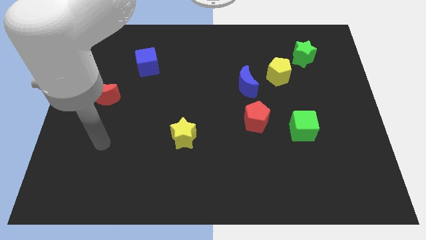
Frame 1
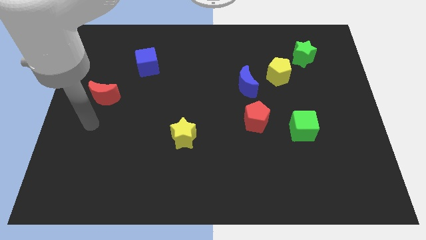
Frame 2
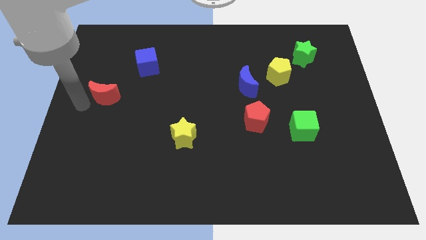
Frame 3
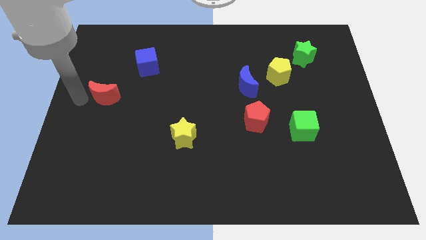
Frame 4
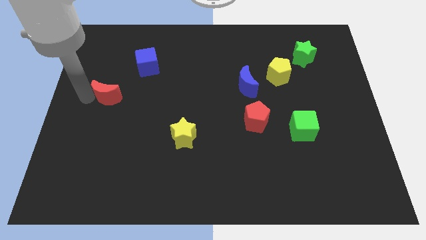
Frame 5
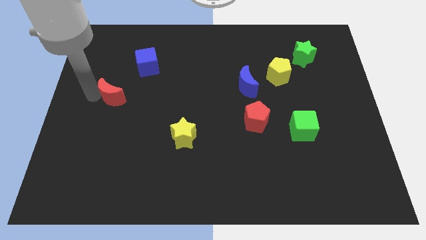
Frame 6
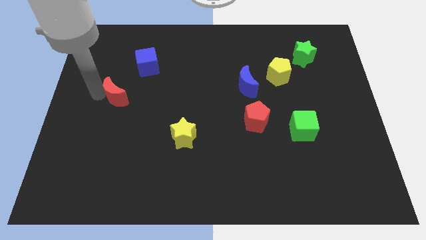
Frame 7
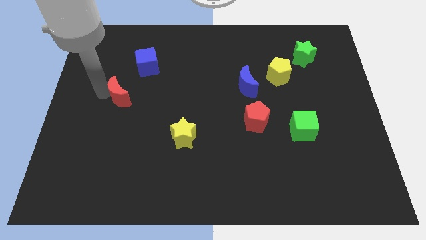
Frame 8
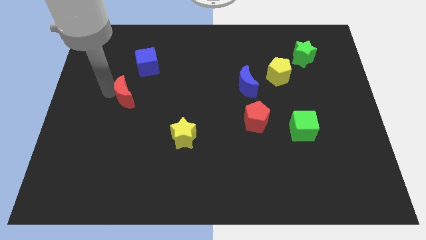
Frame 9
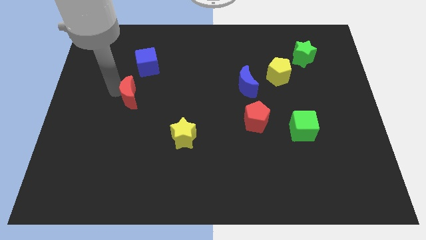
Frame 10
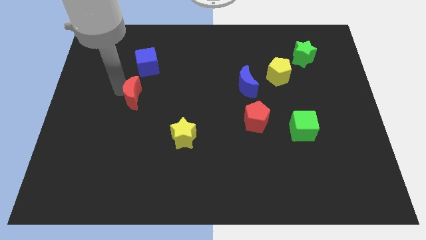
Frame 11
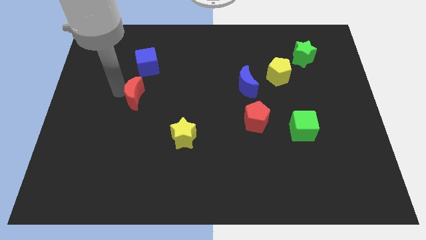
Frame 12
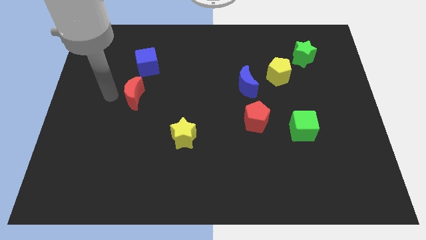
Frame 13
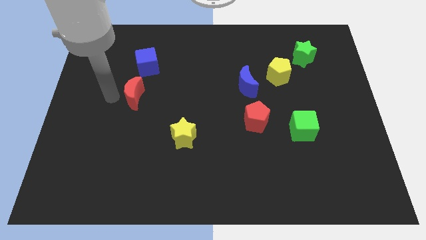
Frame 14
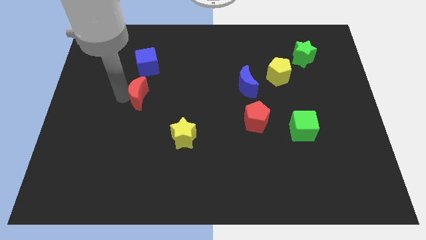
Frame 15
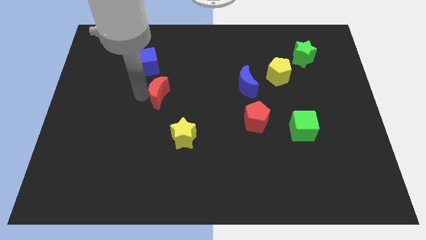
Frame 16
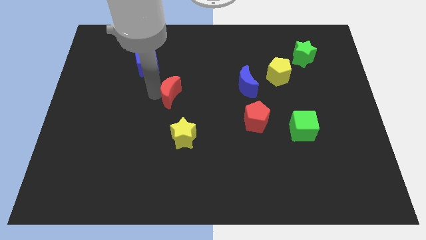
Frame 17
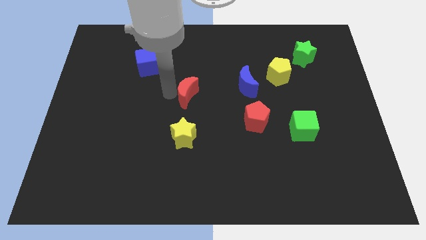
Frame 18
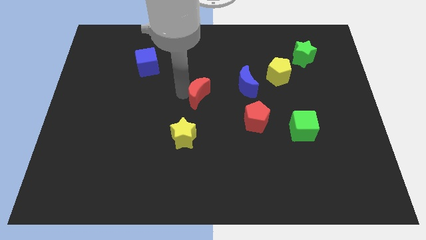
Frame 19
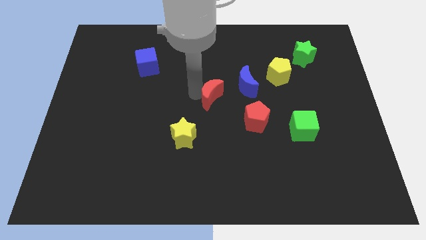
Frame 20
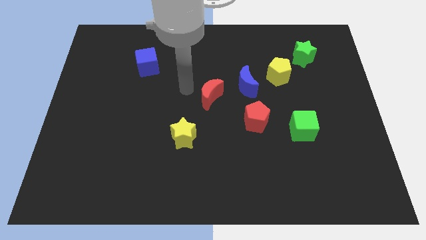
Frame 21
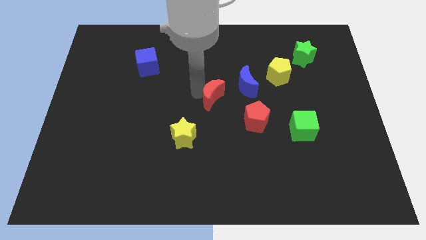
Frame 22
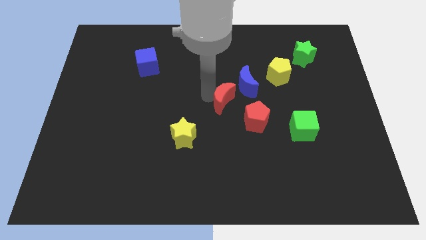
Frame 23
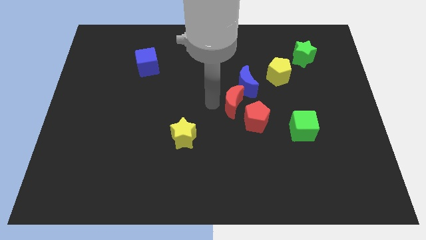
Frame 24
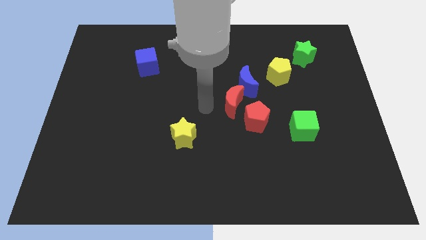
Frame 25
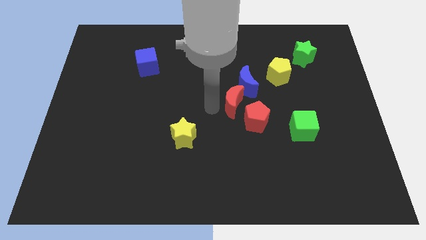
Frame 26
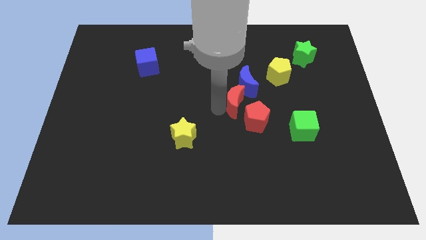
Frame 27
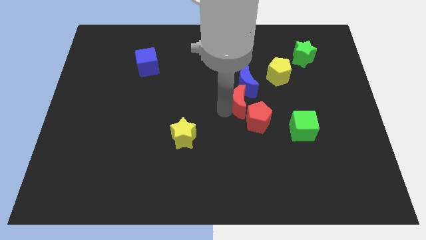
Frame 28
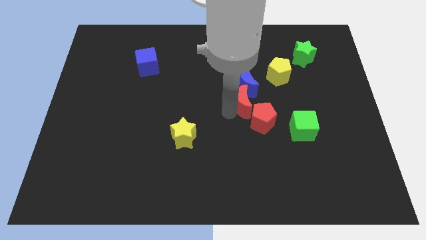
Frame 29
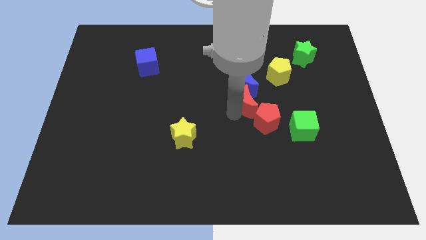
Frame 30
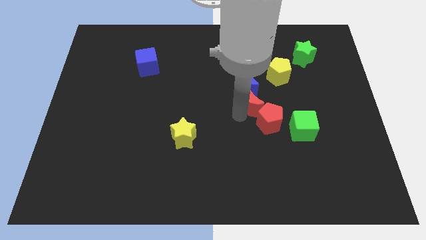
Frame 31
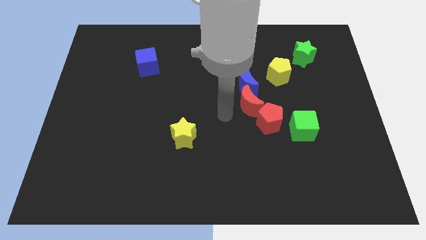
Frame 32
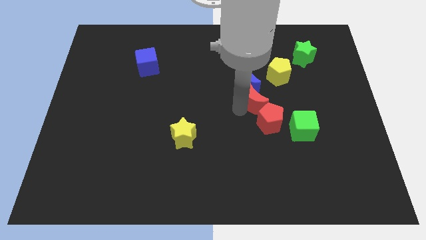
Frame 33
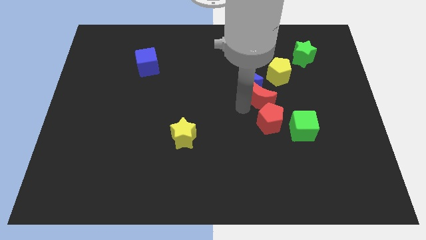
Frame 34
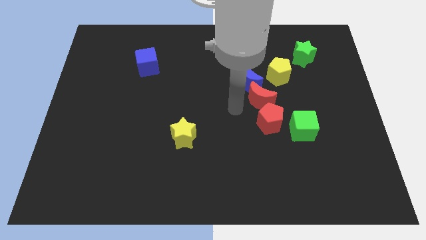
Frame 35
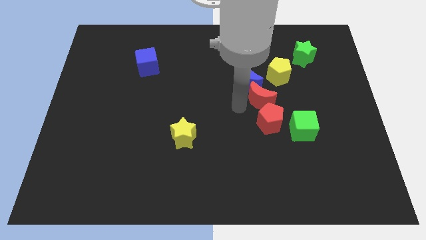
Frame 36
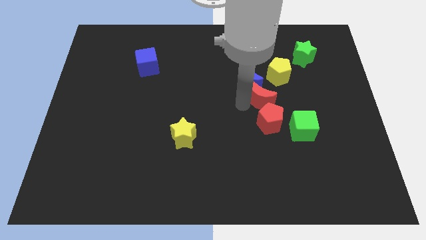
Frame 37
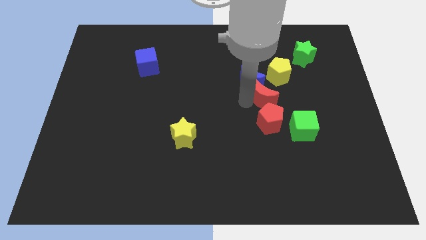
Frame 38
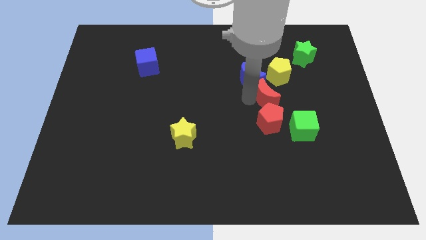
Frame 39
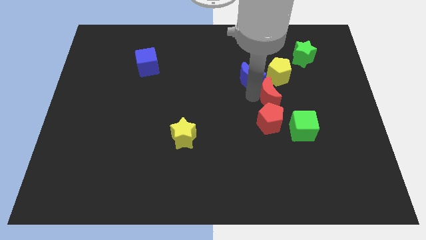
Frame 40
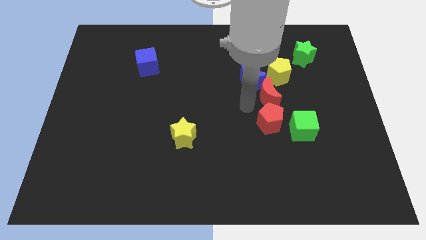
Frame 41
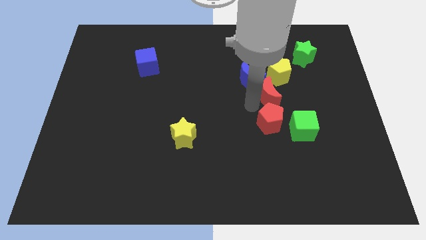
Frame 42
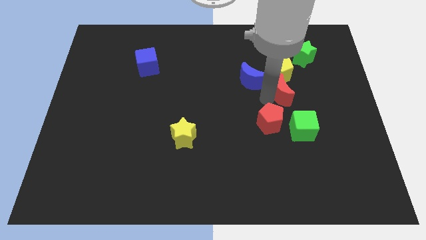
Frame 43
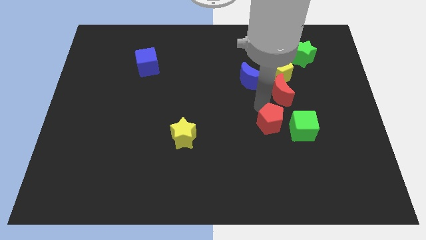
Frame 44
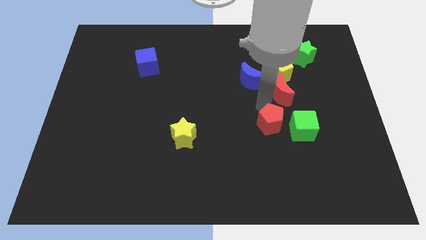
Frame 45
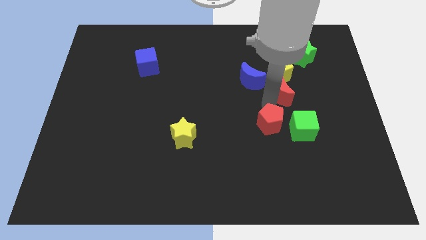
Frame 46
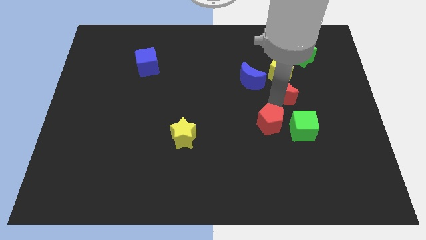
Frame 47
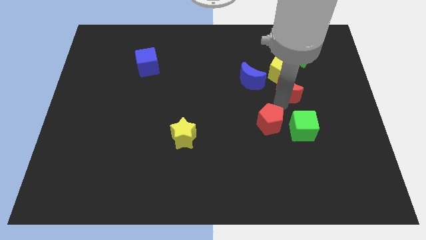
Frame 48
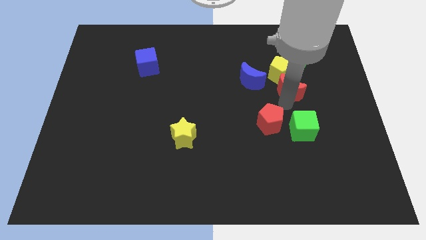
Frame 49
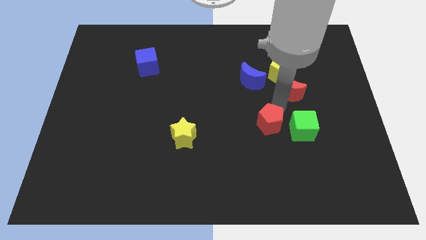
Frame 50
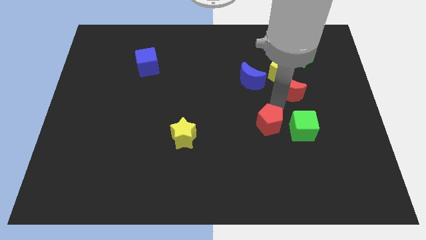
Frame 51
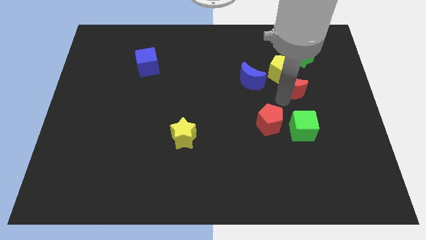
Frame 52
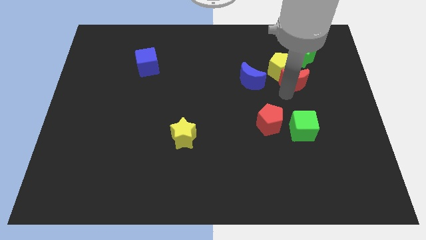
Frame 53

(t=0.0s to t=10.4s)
slide the red moon to the right of the yellow pentagon

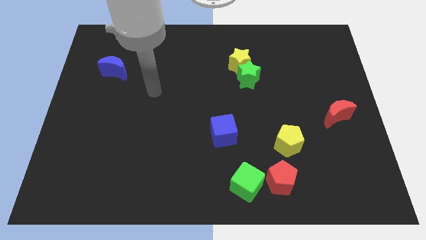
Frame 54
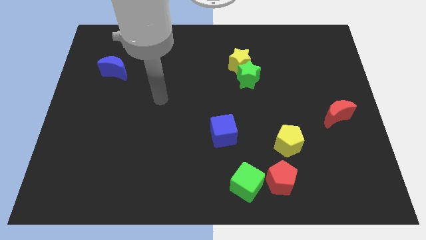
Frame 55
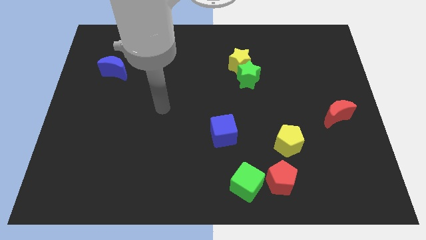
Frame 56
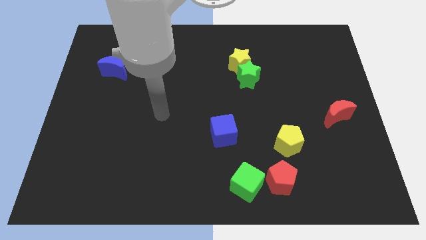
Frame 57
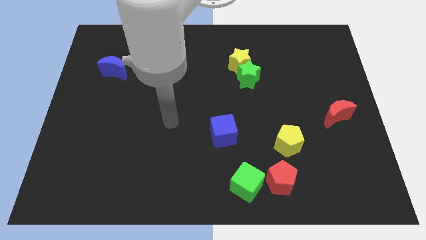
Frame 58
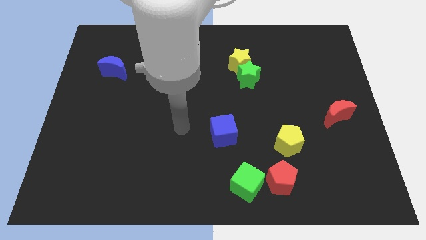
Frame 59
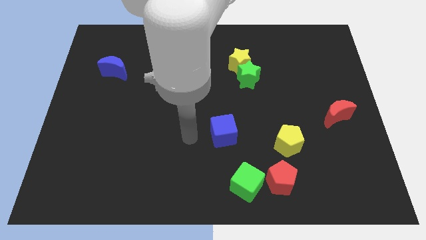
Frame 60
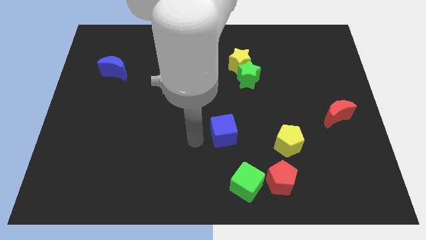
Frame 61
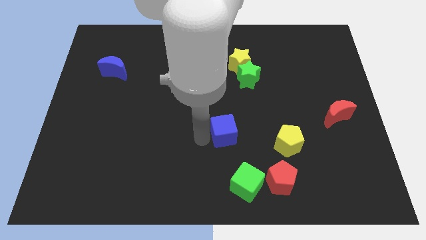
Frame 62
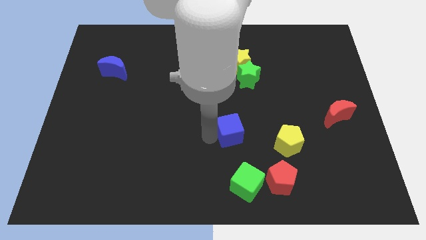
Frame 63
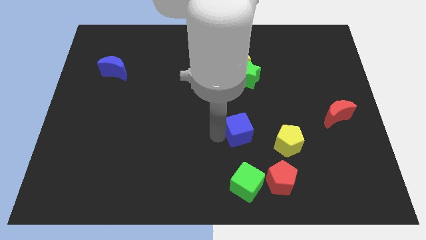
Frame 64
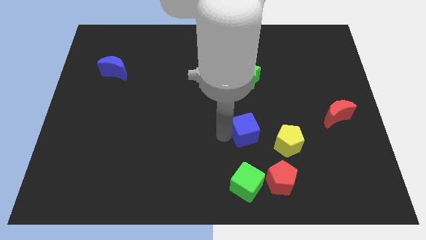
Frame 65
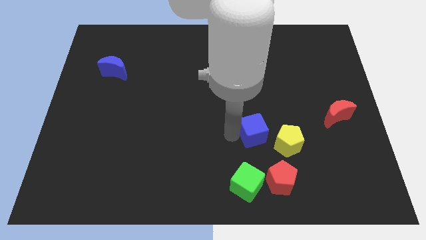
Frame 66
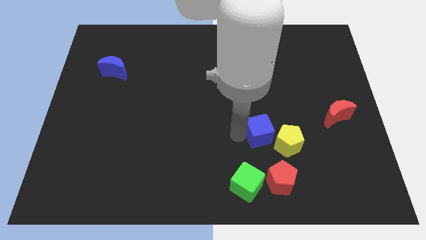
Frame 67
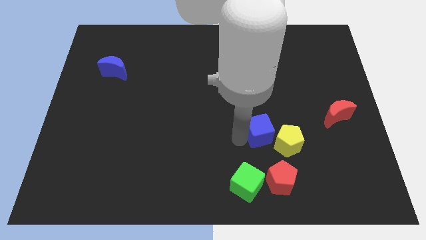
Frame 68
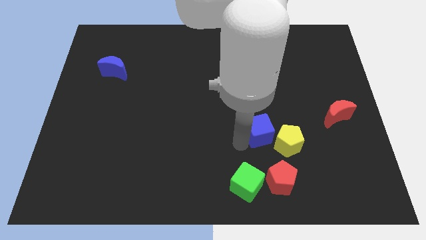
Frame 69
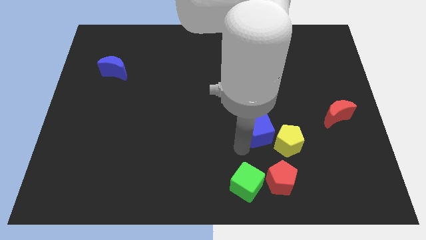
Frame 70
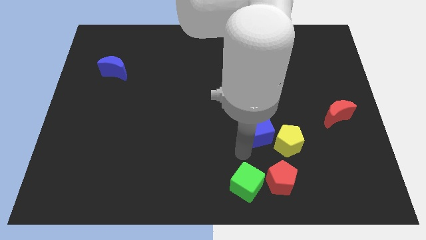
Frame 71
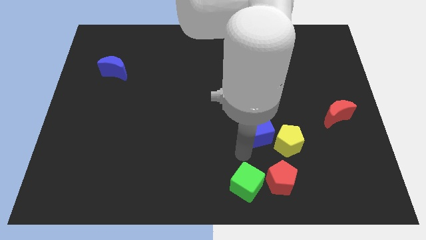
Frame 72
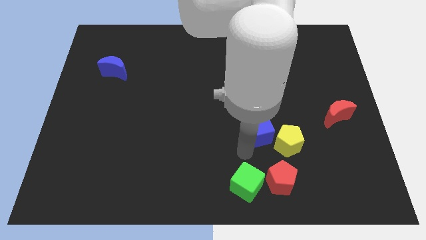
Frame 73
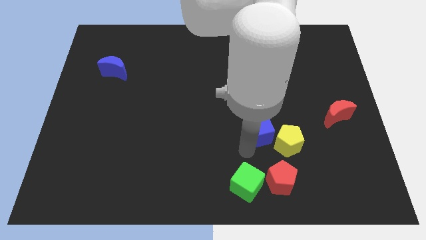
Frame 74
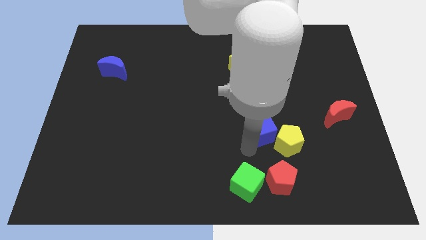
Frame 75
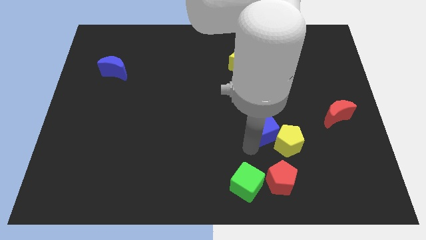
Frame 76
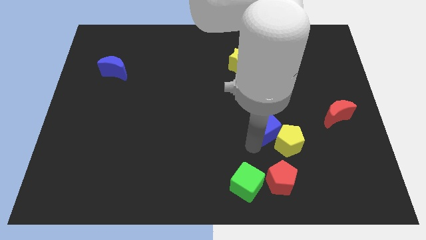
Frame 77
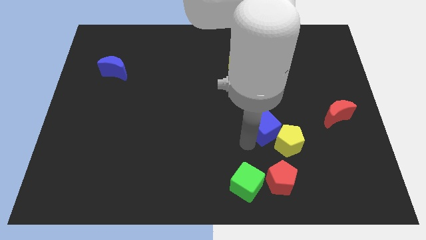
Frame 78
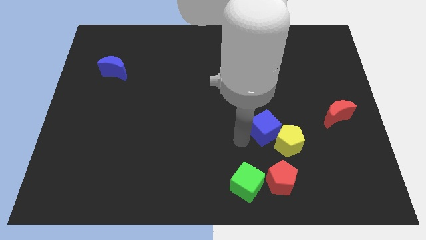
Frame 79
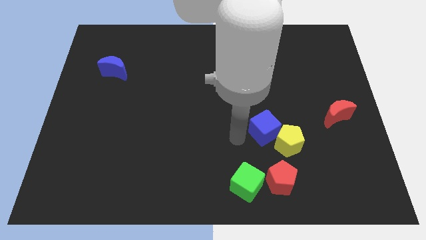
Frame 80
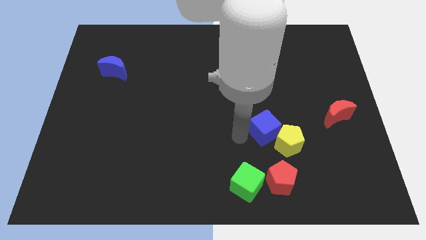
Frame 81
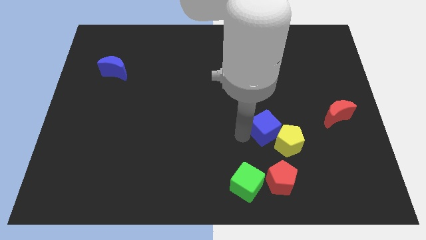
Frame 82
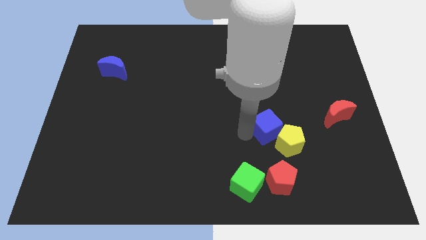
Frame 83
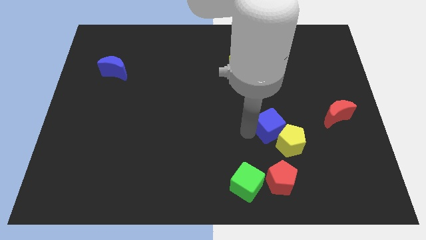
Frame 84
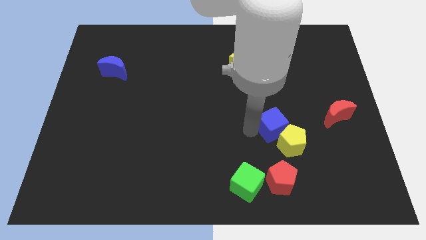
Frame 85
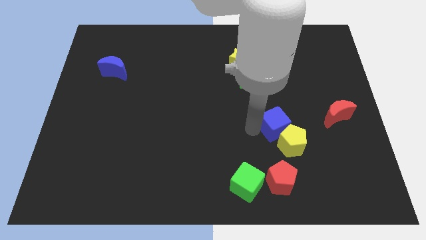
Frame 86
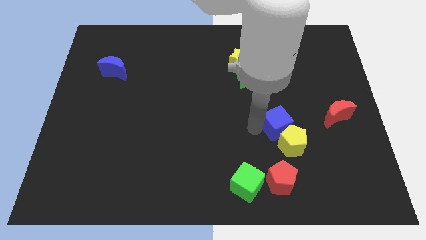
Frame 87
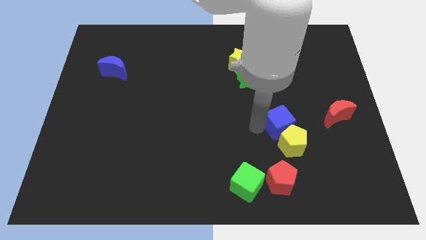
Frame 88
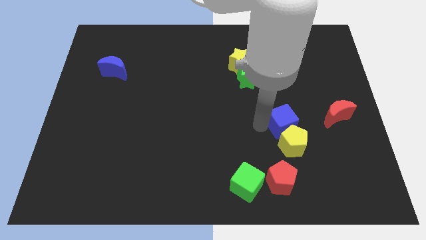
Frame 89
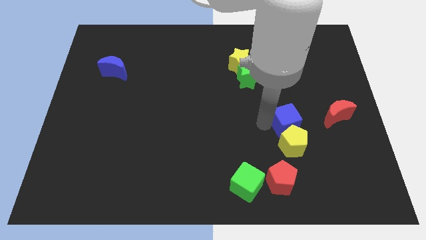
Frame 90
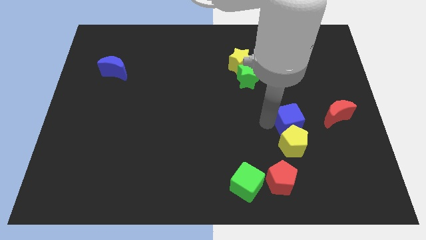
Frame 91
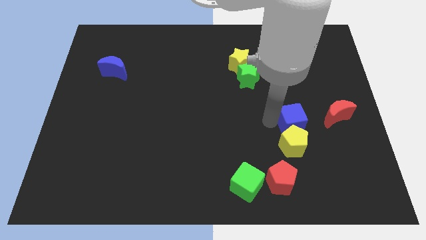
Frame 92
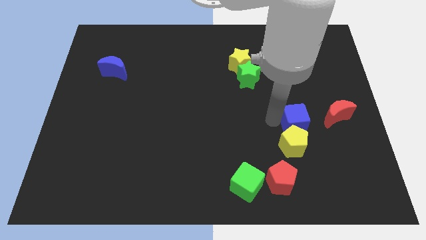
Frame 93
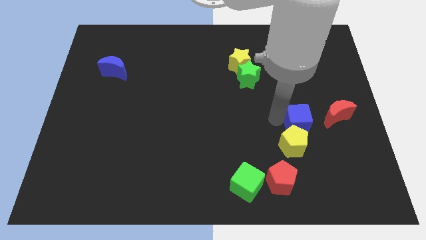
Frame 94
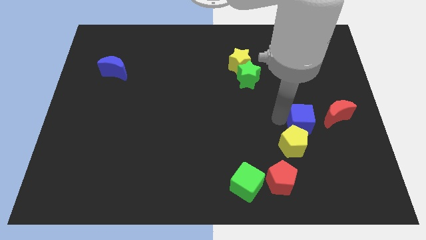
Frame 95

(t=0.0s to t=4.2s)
move the blue cube diagonally down and to the left of the red moon
